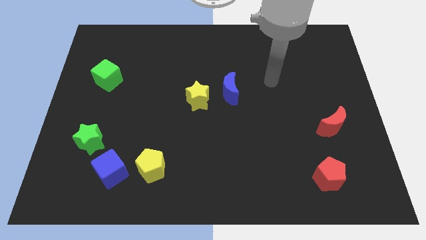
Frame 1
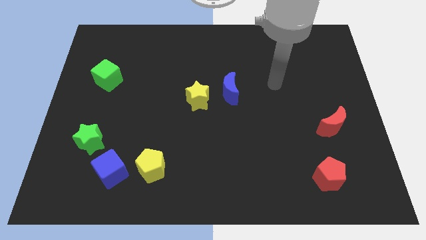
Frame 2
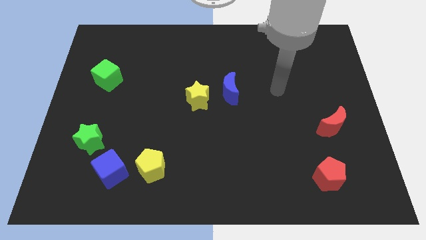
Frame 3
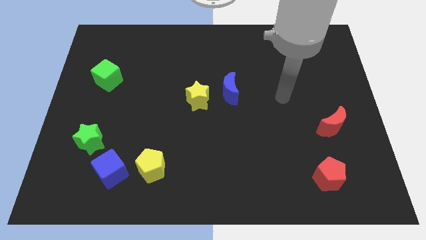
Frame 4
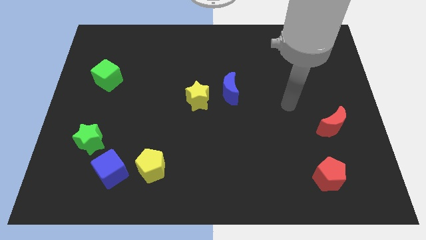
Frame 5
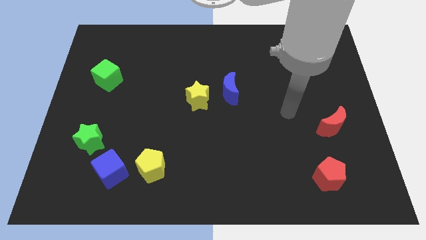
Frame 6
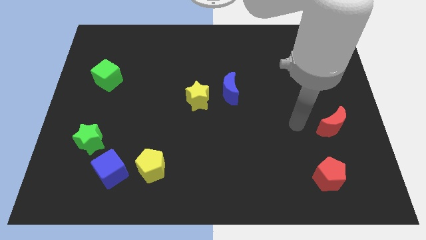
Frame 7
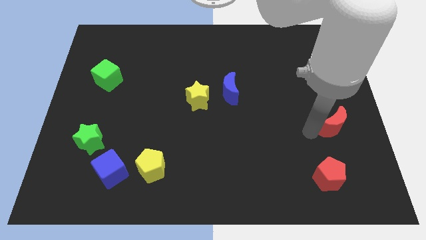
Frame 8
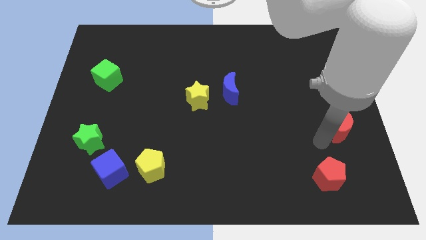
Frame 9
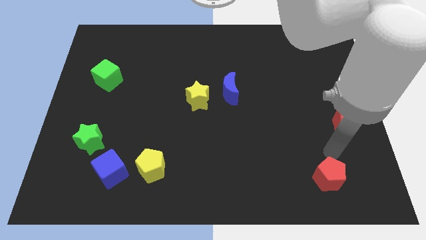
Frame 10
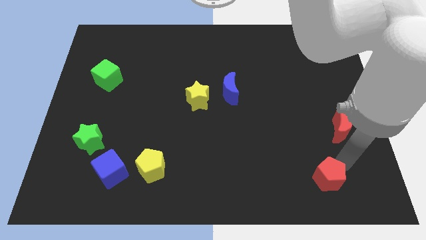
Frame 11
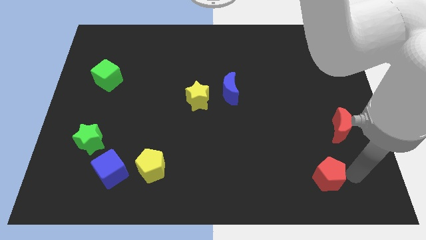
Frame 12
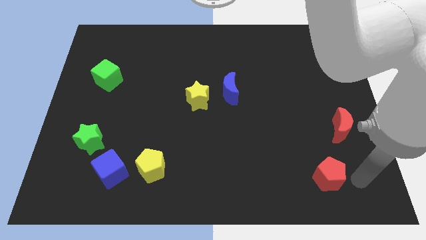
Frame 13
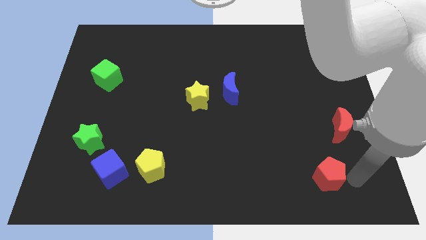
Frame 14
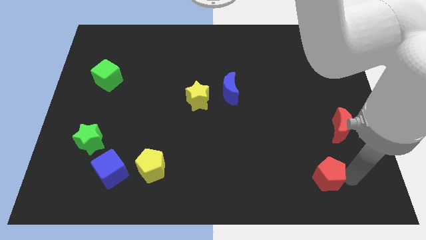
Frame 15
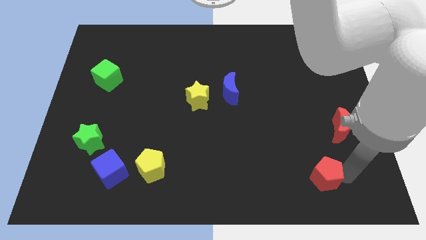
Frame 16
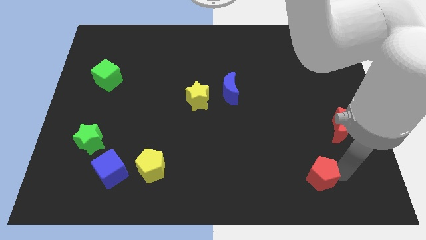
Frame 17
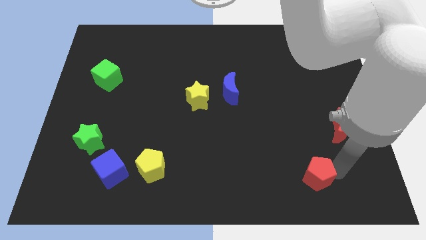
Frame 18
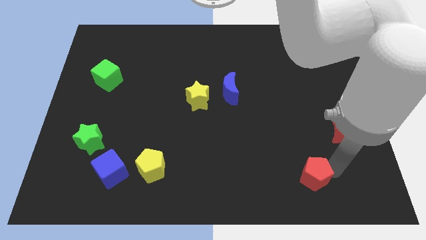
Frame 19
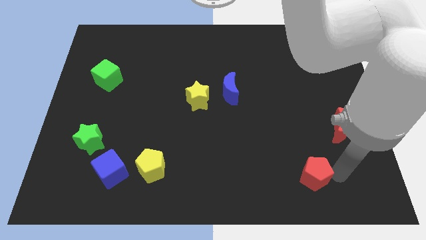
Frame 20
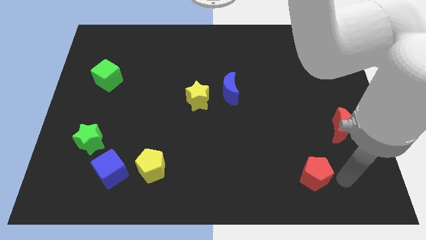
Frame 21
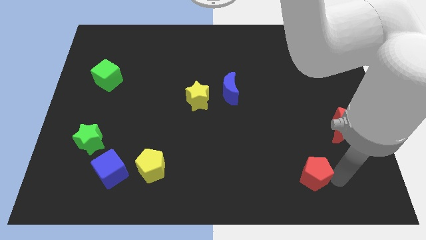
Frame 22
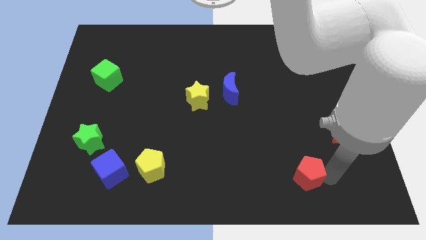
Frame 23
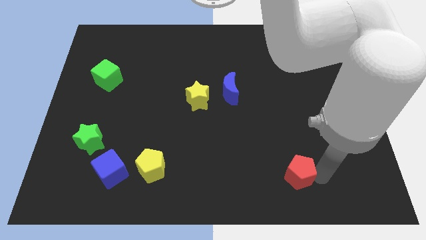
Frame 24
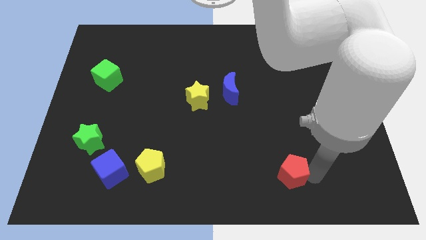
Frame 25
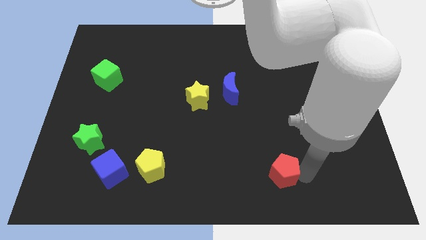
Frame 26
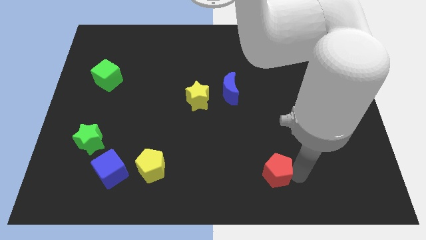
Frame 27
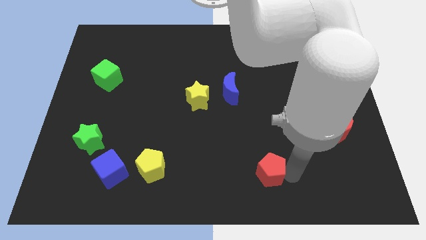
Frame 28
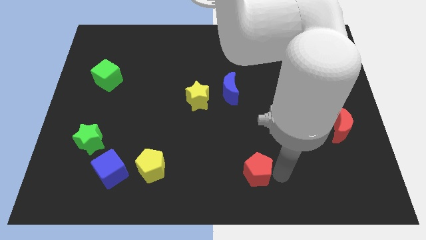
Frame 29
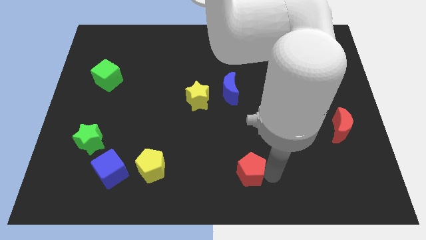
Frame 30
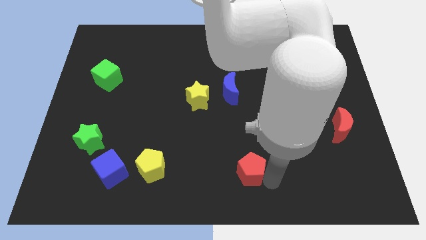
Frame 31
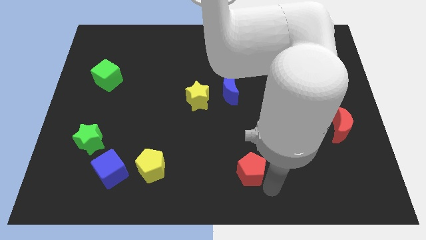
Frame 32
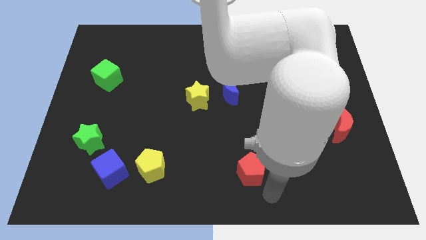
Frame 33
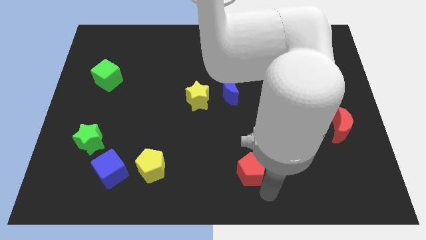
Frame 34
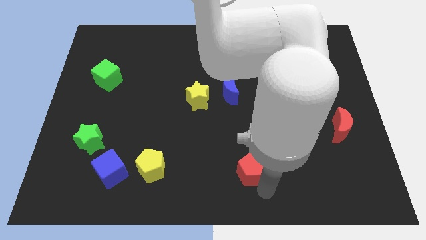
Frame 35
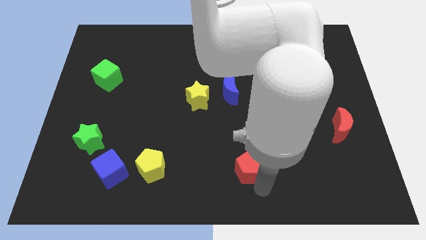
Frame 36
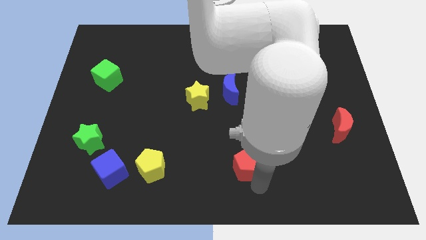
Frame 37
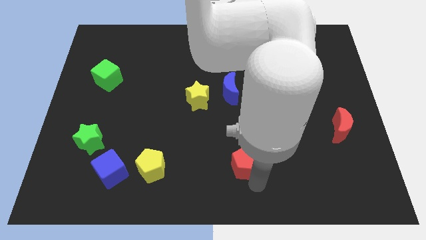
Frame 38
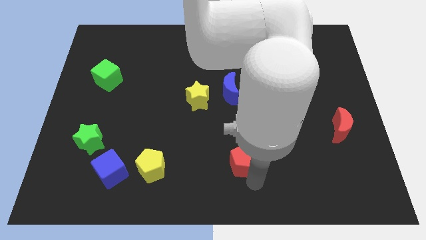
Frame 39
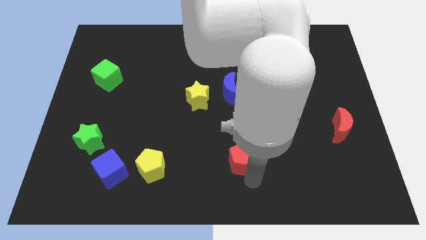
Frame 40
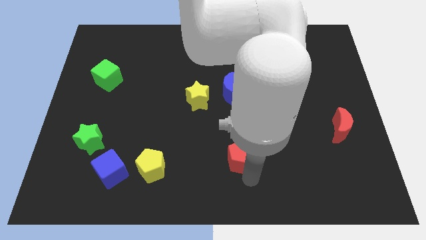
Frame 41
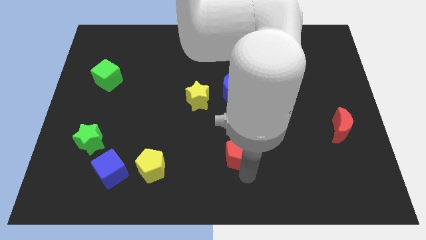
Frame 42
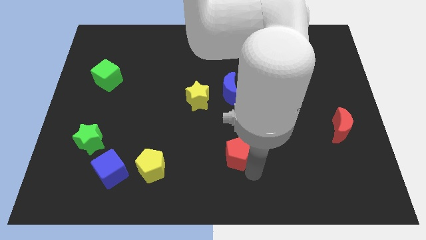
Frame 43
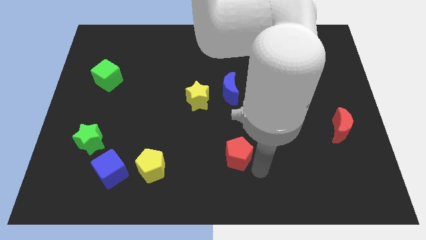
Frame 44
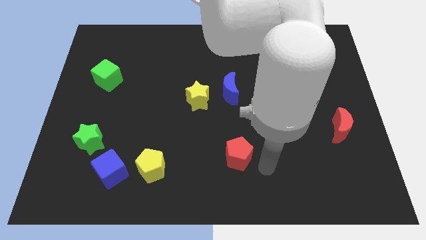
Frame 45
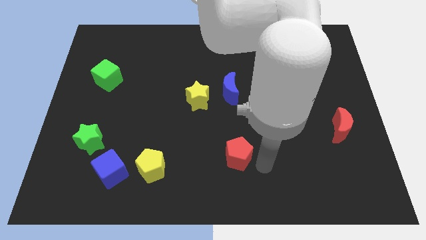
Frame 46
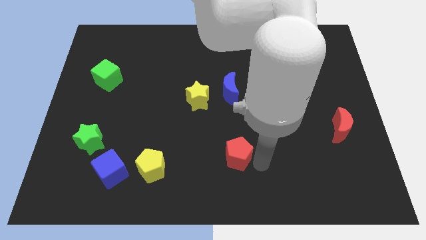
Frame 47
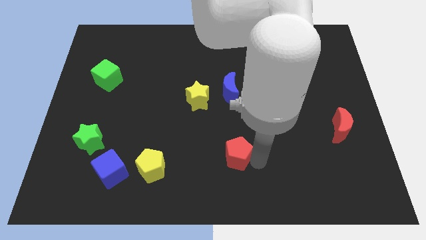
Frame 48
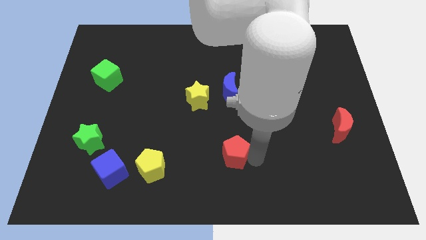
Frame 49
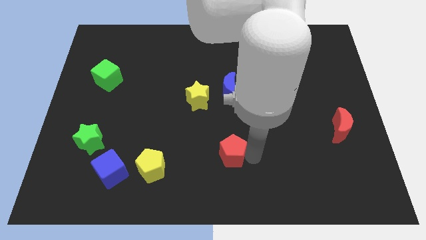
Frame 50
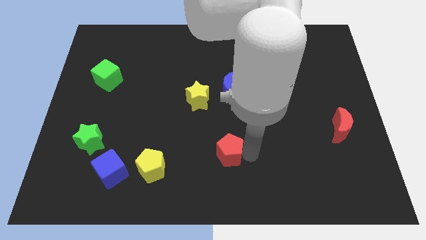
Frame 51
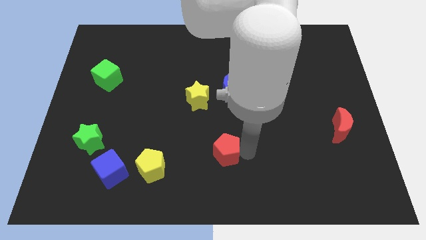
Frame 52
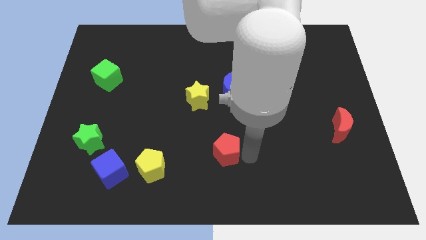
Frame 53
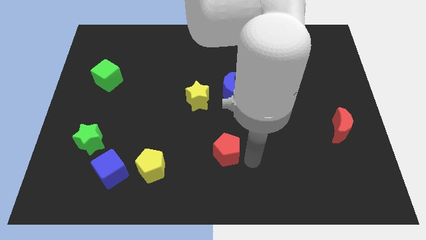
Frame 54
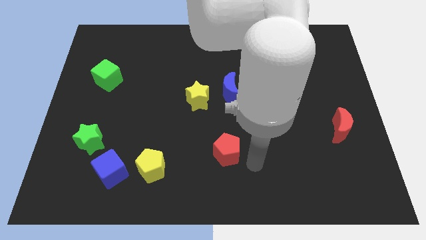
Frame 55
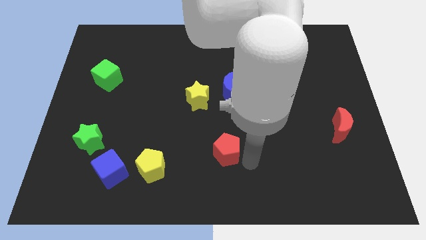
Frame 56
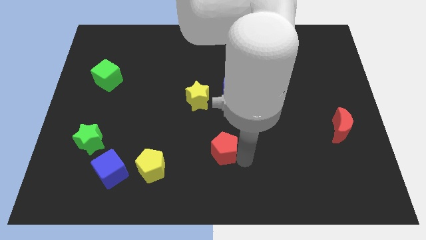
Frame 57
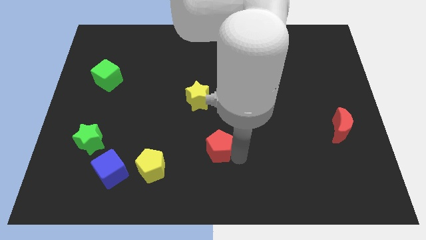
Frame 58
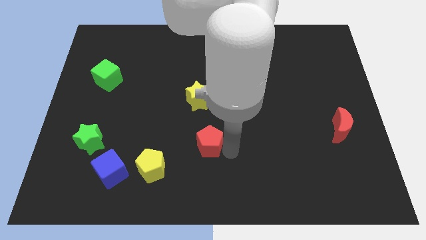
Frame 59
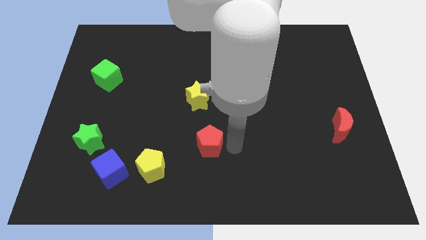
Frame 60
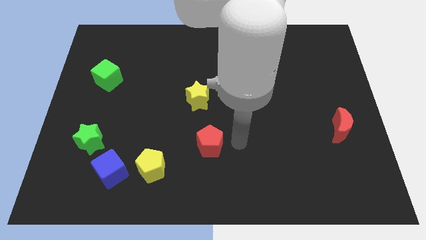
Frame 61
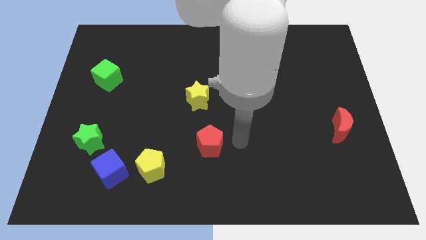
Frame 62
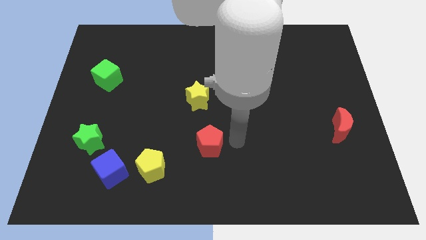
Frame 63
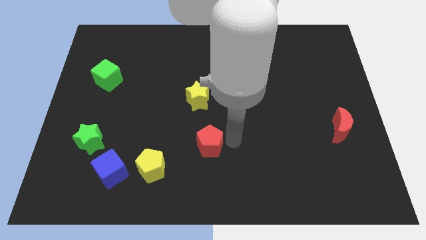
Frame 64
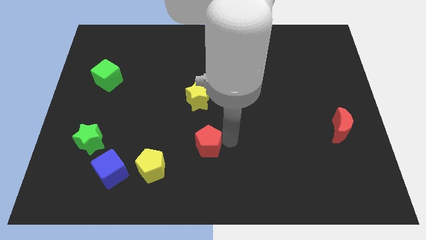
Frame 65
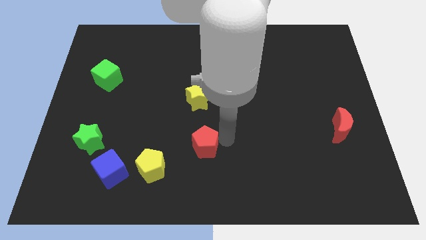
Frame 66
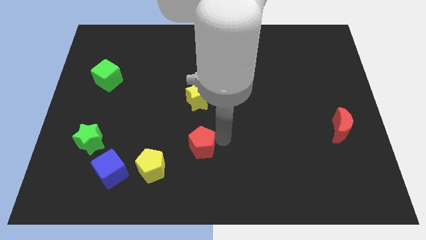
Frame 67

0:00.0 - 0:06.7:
put the red pentagon to the top right side of the yellow pentagon
